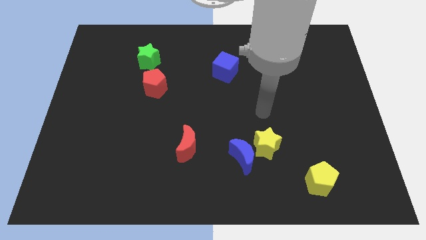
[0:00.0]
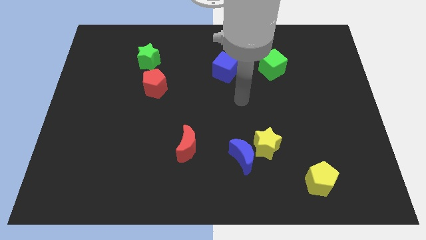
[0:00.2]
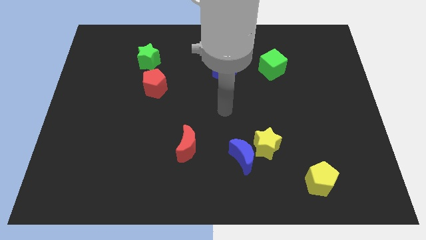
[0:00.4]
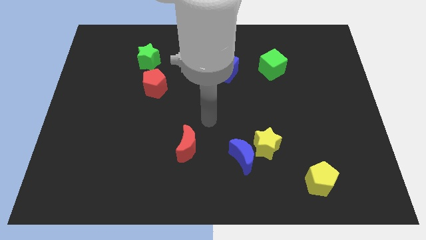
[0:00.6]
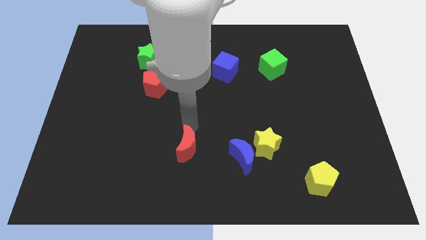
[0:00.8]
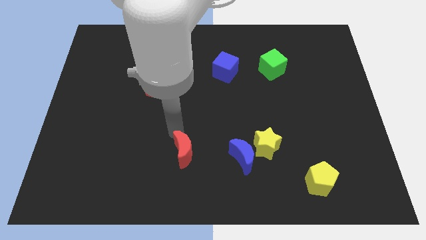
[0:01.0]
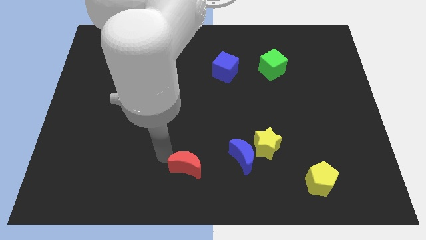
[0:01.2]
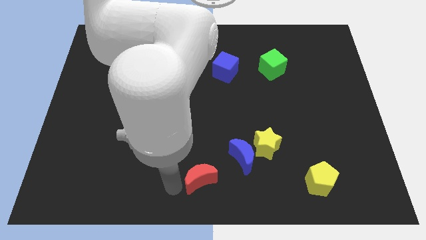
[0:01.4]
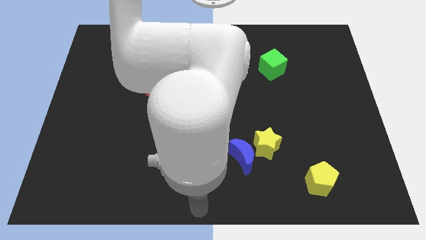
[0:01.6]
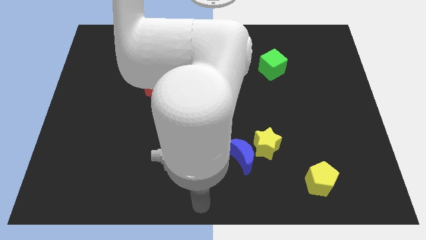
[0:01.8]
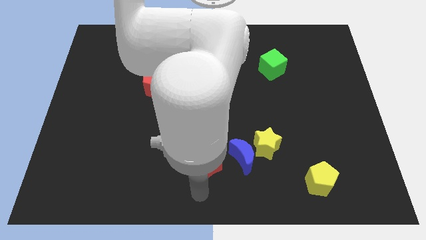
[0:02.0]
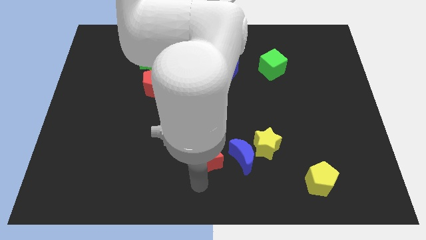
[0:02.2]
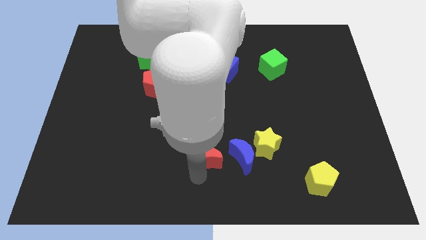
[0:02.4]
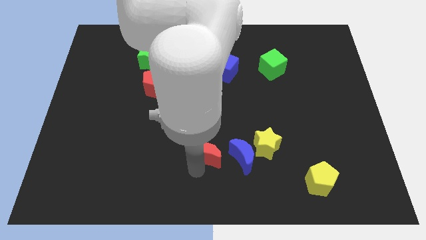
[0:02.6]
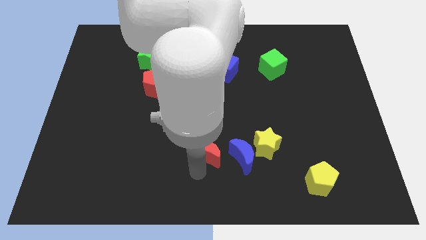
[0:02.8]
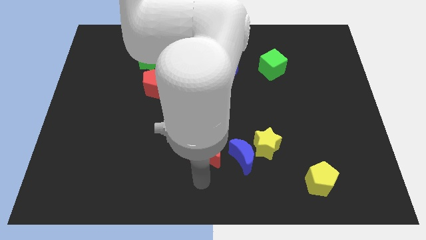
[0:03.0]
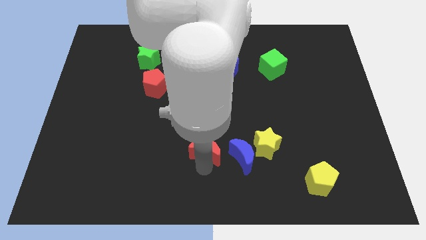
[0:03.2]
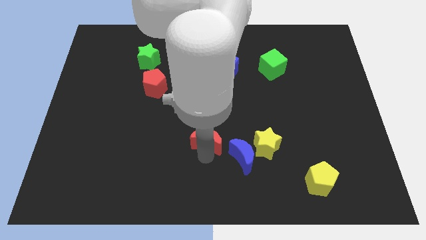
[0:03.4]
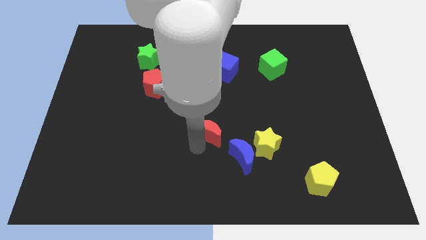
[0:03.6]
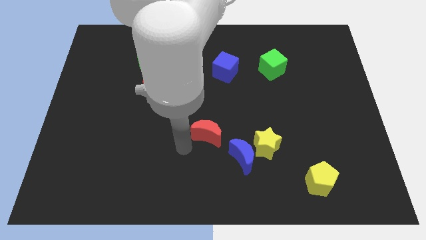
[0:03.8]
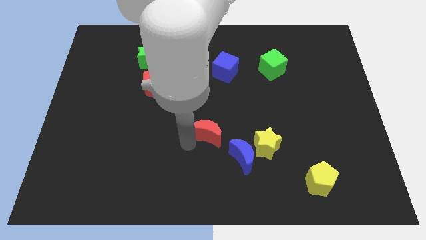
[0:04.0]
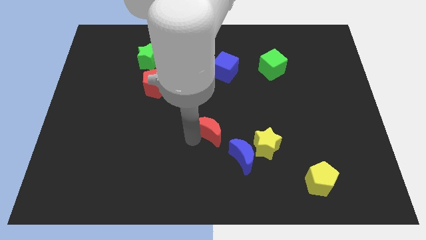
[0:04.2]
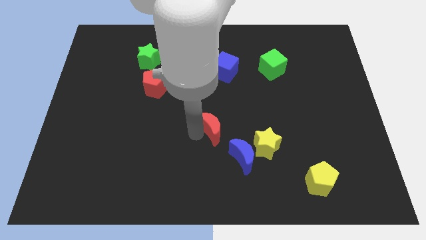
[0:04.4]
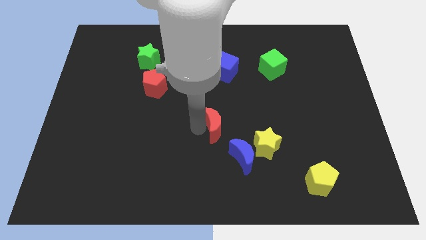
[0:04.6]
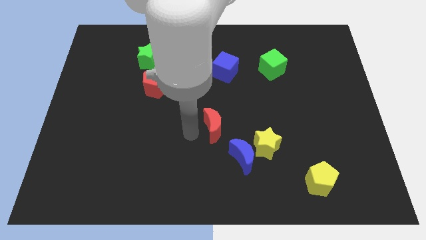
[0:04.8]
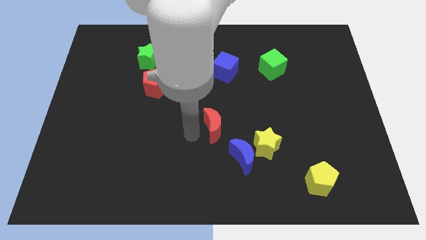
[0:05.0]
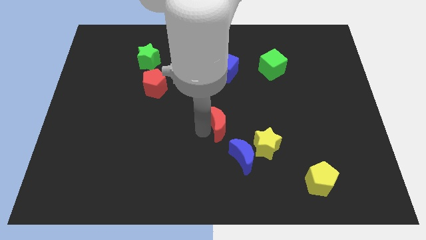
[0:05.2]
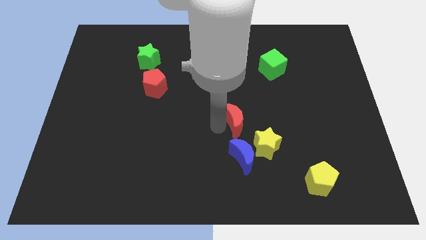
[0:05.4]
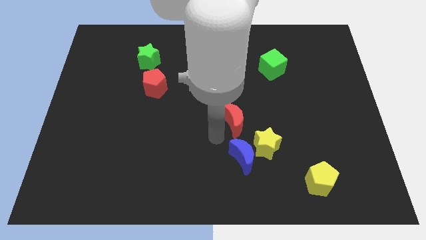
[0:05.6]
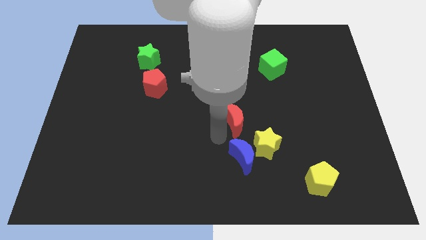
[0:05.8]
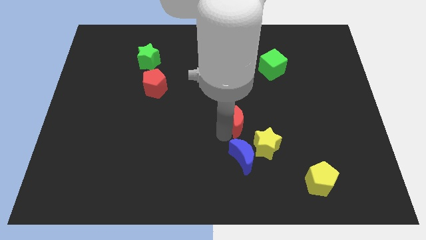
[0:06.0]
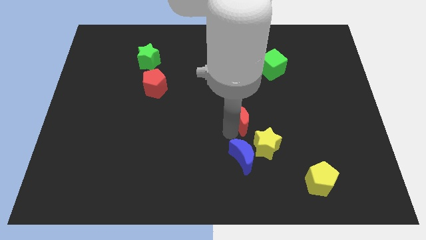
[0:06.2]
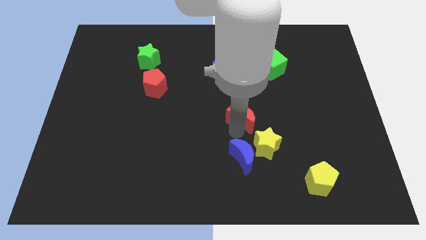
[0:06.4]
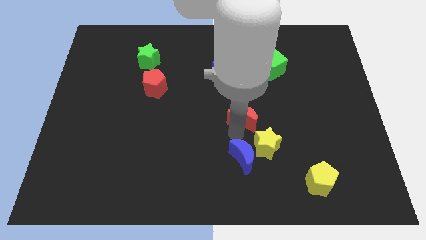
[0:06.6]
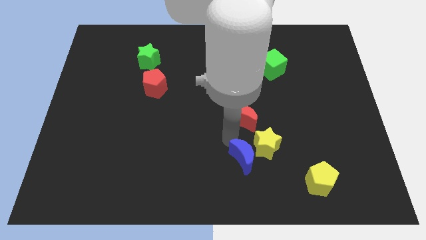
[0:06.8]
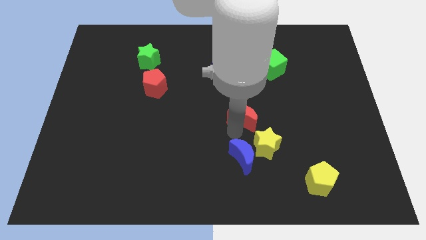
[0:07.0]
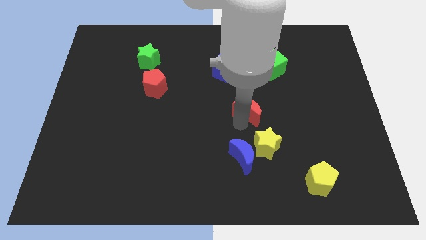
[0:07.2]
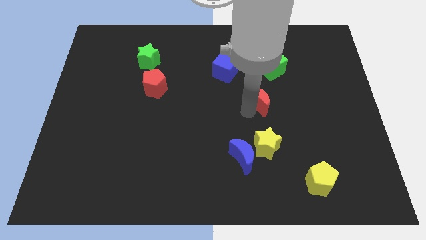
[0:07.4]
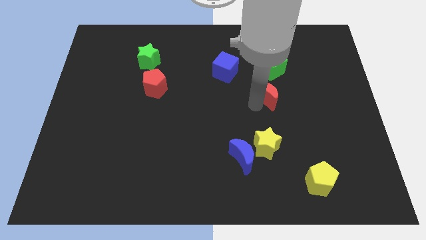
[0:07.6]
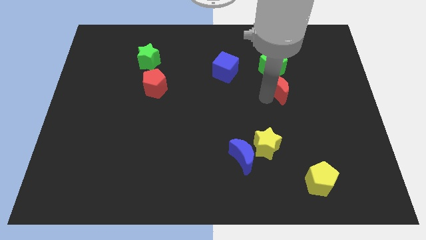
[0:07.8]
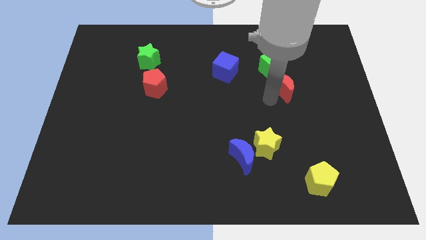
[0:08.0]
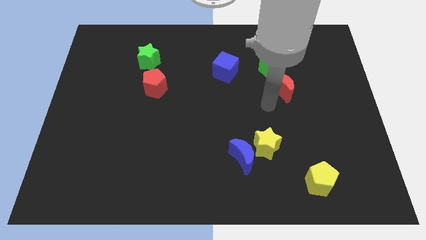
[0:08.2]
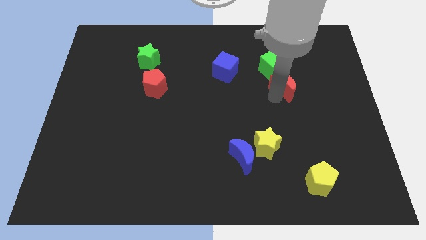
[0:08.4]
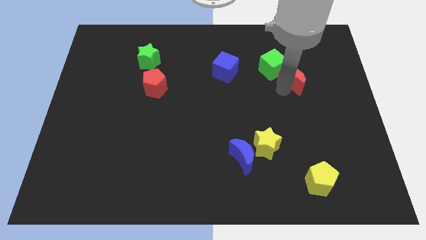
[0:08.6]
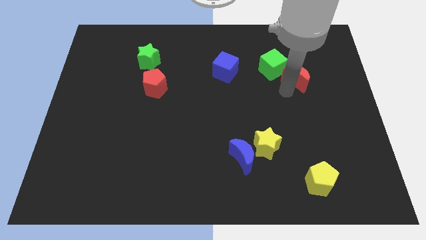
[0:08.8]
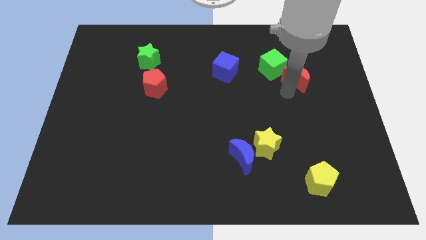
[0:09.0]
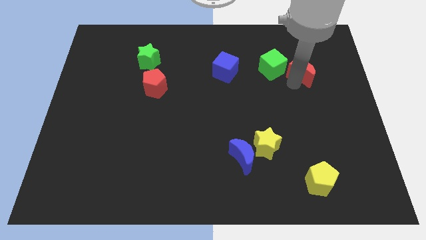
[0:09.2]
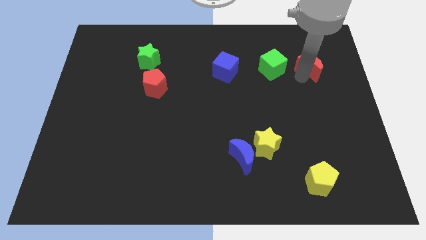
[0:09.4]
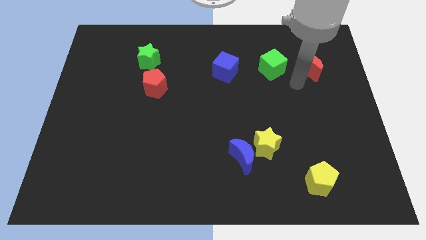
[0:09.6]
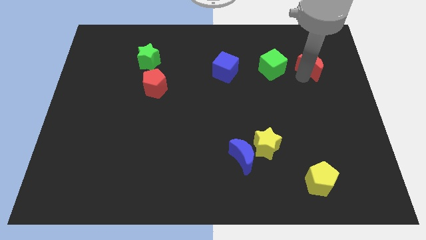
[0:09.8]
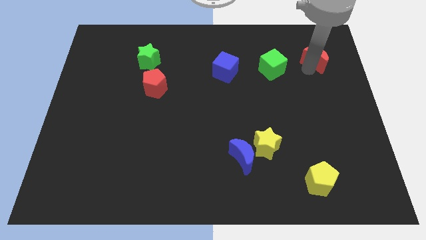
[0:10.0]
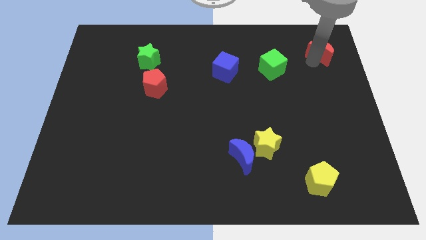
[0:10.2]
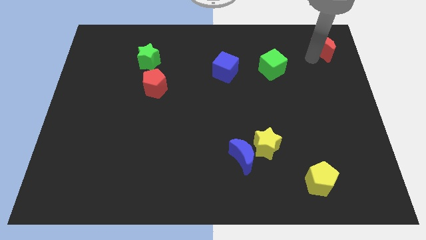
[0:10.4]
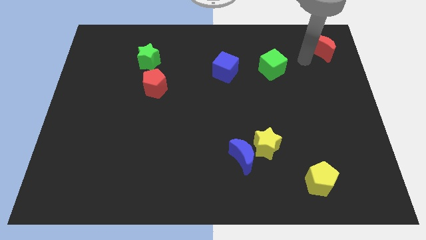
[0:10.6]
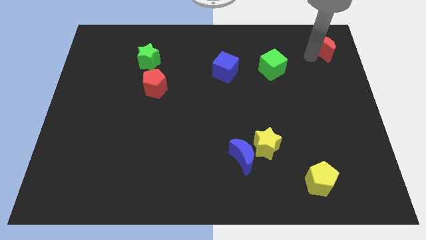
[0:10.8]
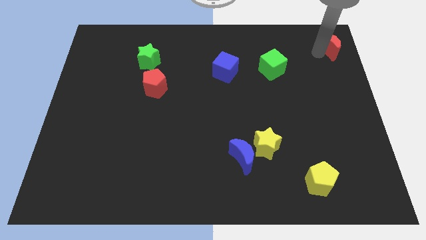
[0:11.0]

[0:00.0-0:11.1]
push the red moon to the top right of the board

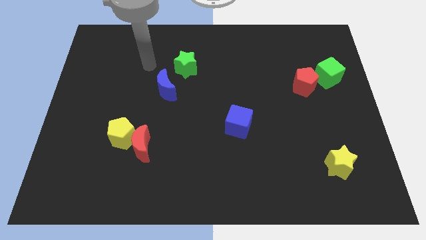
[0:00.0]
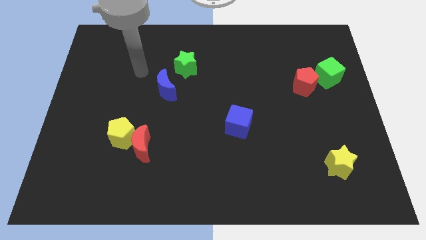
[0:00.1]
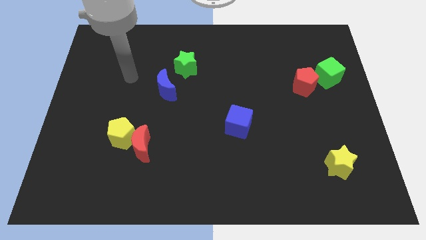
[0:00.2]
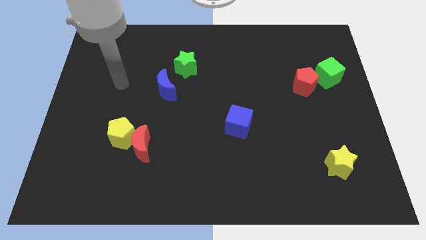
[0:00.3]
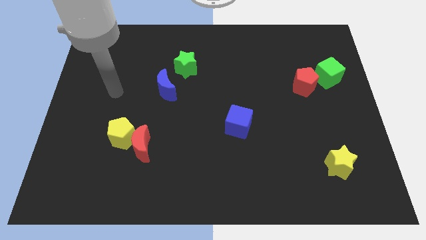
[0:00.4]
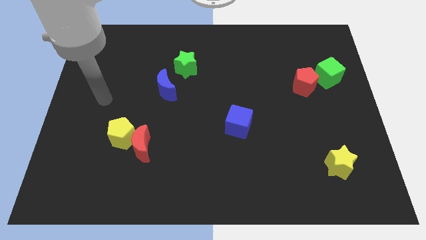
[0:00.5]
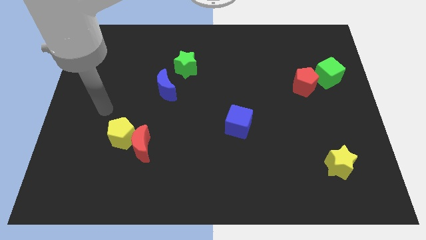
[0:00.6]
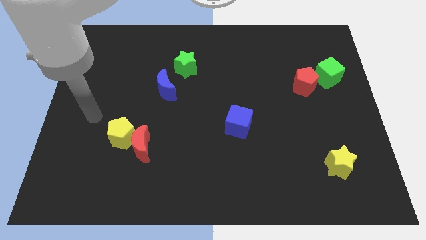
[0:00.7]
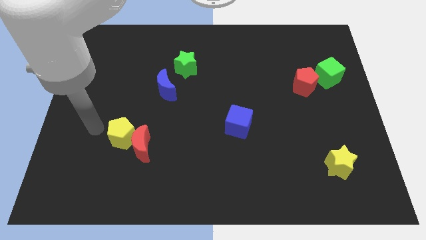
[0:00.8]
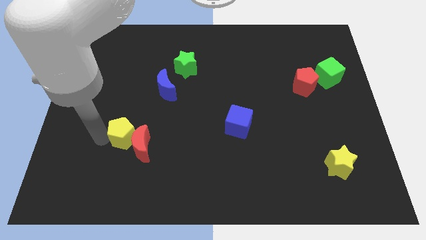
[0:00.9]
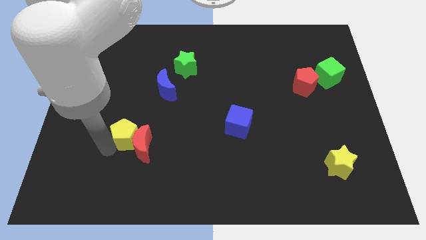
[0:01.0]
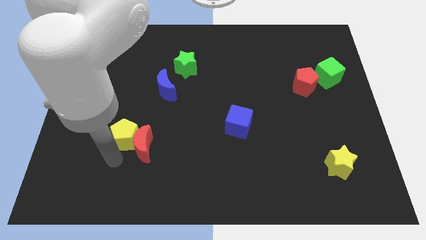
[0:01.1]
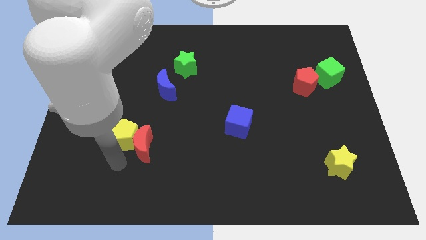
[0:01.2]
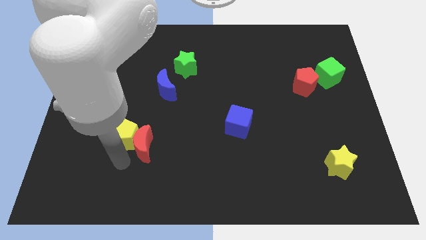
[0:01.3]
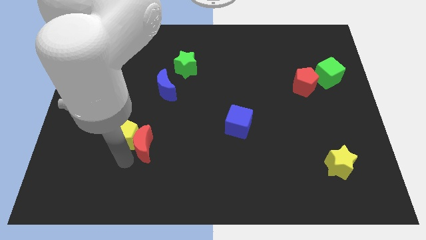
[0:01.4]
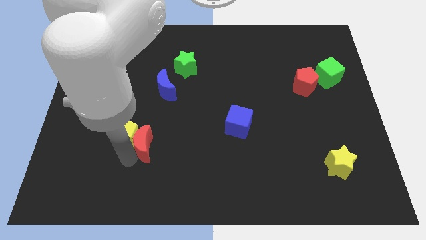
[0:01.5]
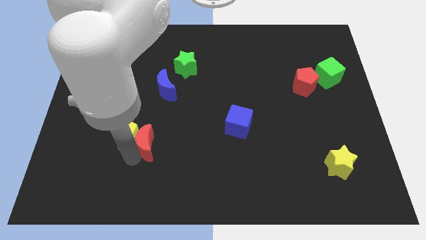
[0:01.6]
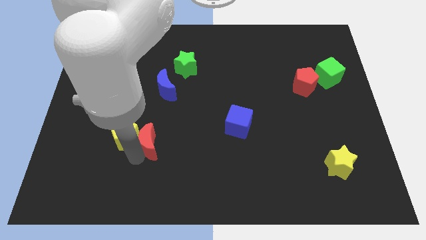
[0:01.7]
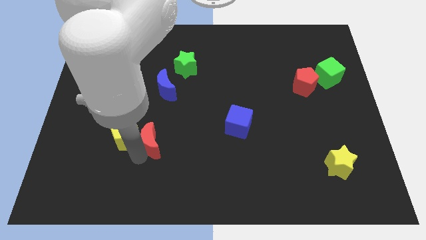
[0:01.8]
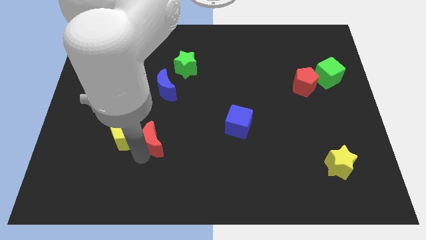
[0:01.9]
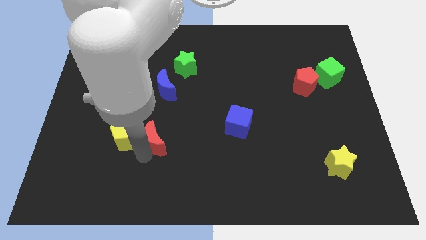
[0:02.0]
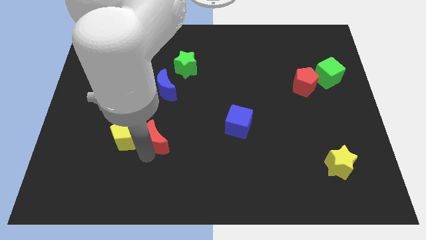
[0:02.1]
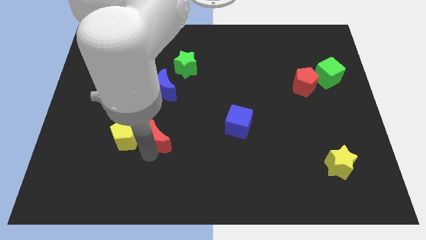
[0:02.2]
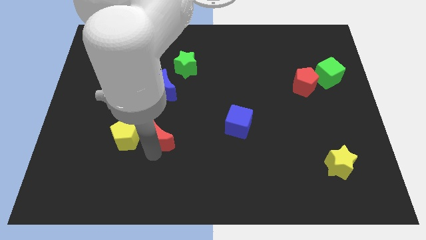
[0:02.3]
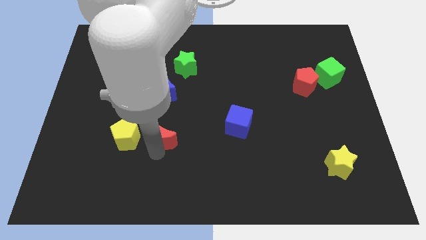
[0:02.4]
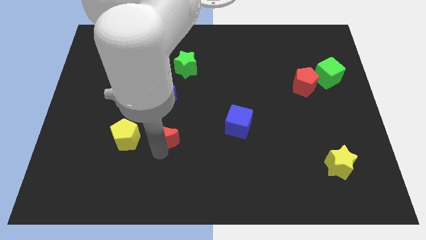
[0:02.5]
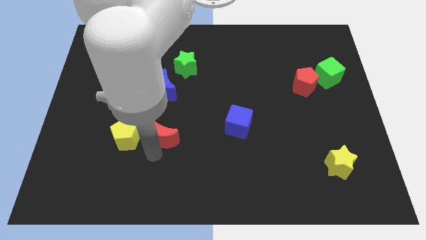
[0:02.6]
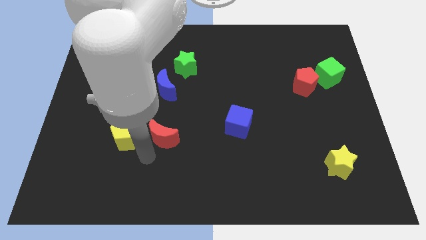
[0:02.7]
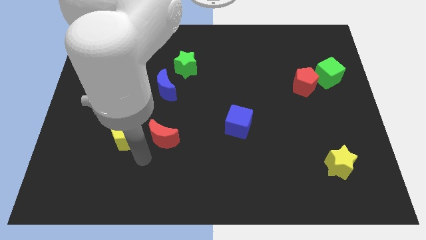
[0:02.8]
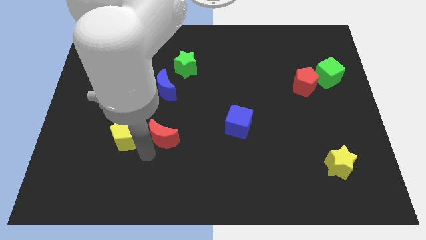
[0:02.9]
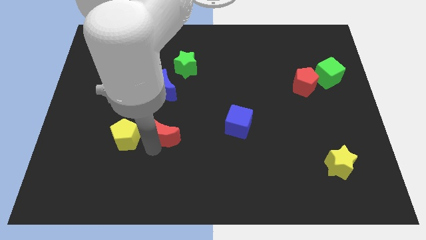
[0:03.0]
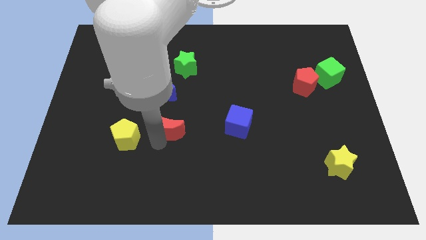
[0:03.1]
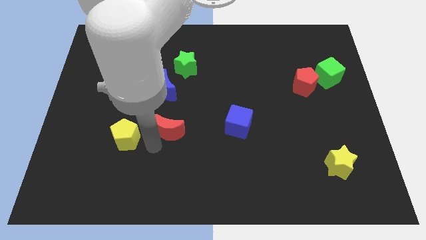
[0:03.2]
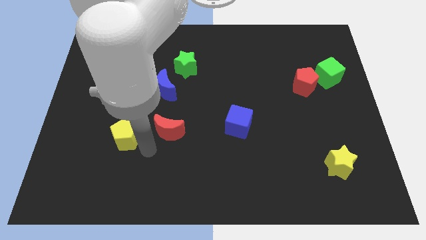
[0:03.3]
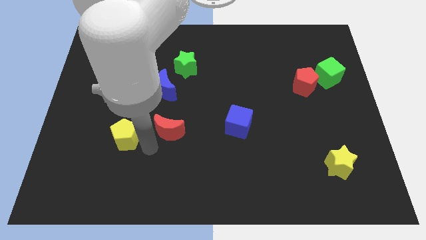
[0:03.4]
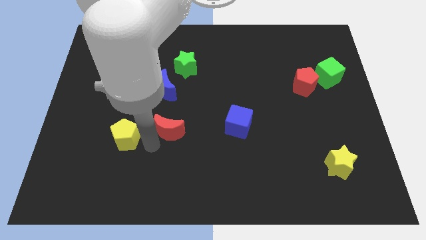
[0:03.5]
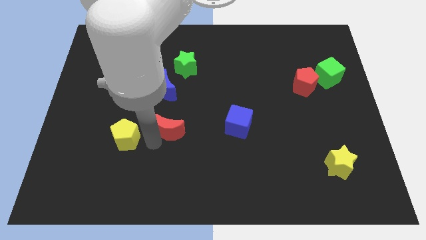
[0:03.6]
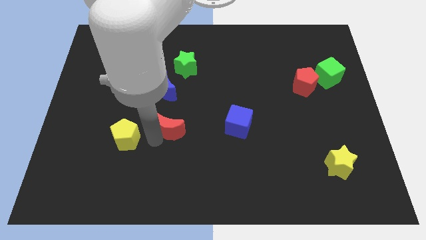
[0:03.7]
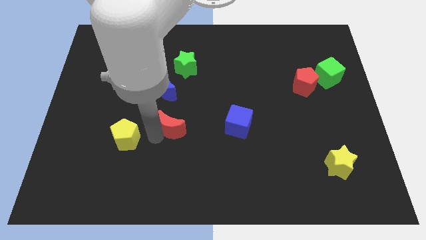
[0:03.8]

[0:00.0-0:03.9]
move the red moon to the middle of the board
